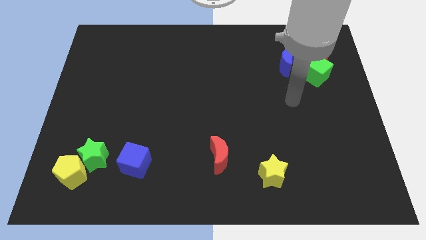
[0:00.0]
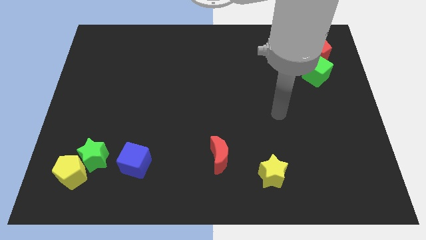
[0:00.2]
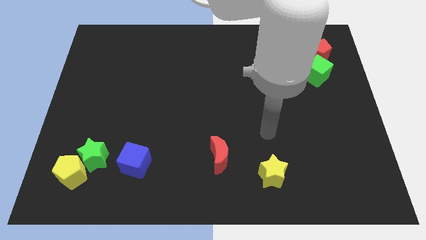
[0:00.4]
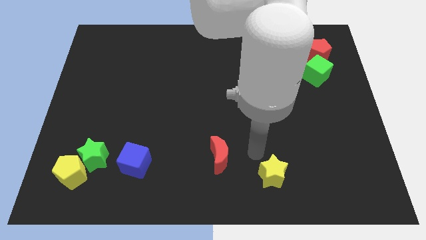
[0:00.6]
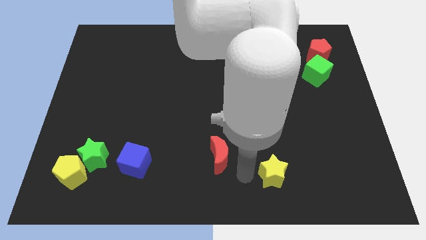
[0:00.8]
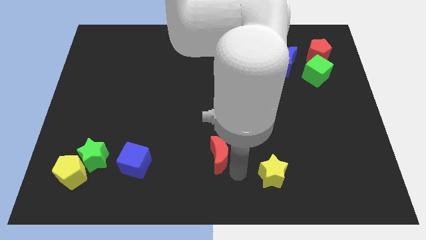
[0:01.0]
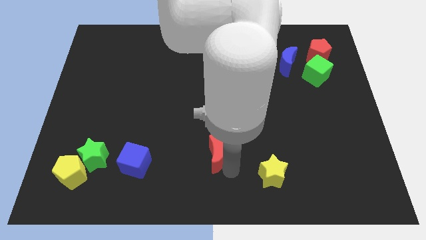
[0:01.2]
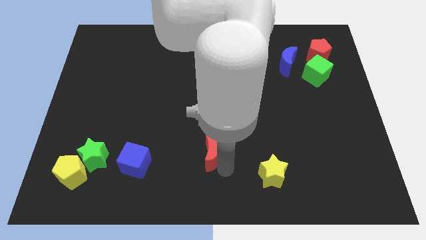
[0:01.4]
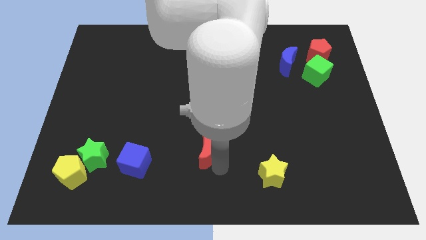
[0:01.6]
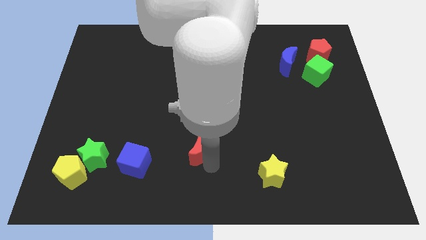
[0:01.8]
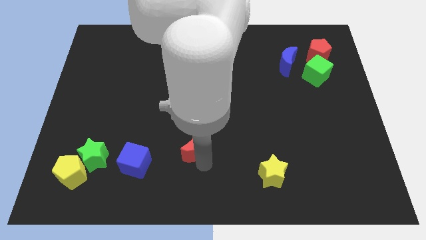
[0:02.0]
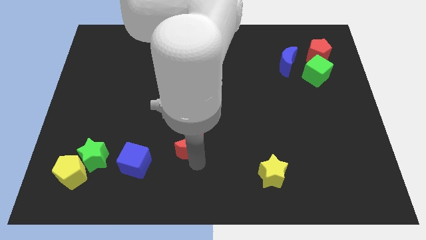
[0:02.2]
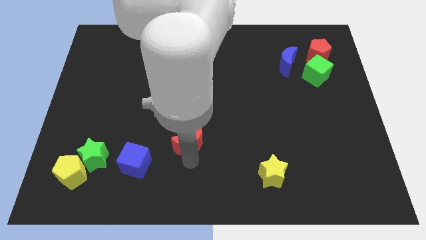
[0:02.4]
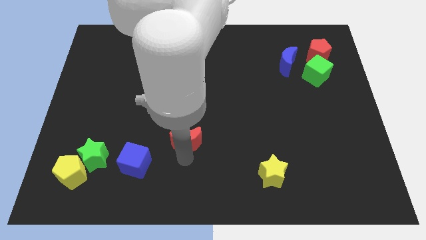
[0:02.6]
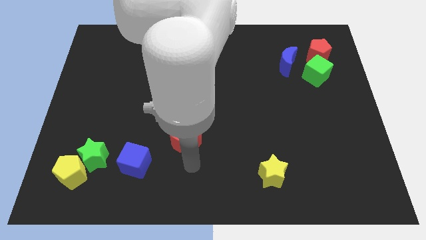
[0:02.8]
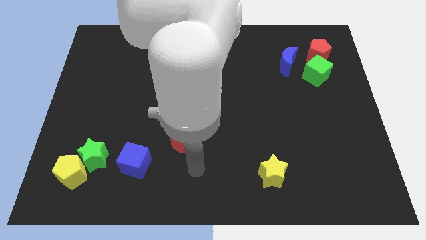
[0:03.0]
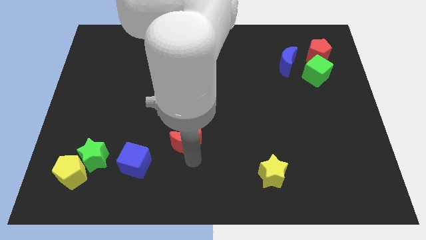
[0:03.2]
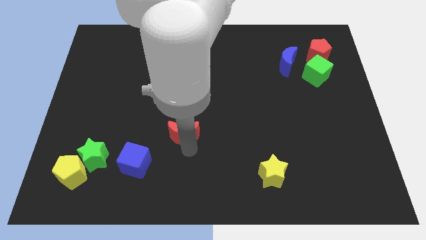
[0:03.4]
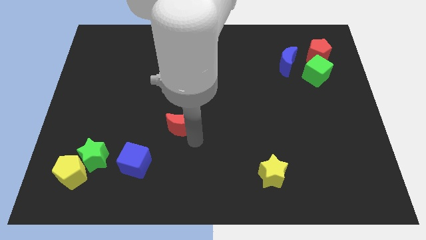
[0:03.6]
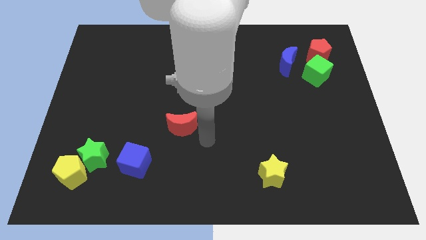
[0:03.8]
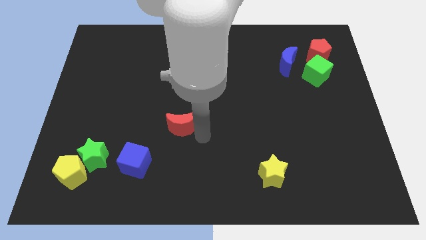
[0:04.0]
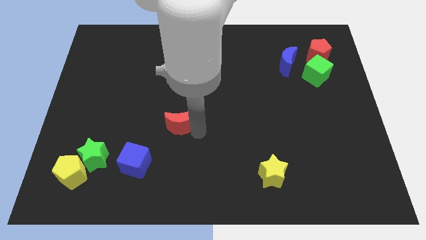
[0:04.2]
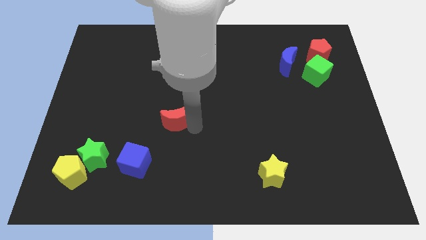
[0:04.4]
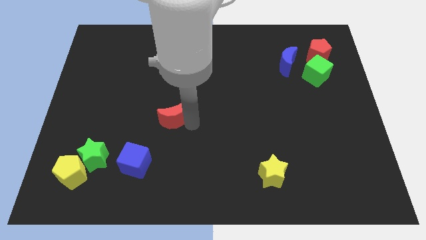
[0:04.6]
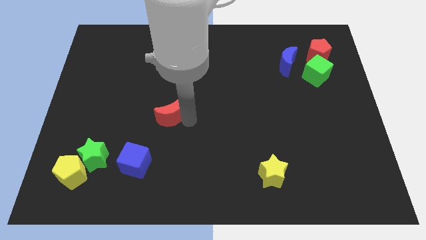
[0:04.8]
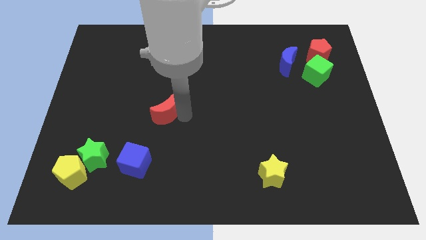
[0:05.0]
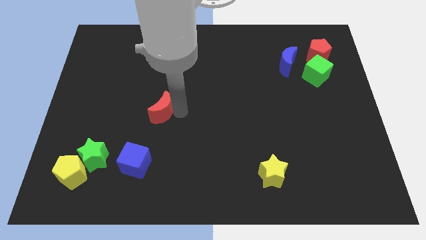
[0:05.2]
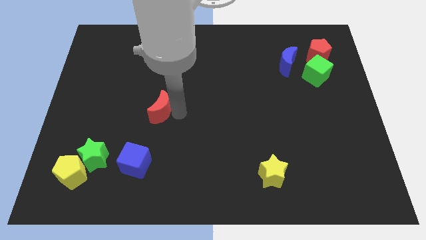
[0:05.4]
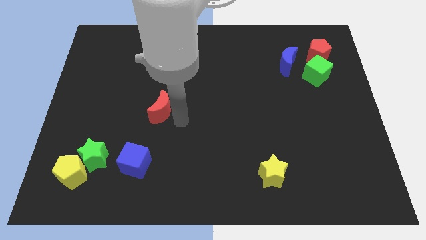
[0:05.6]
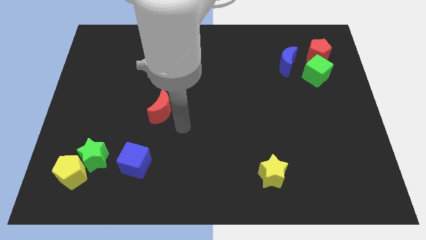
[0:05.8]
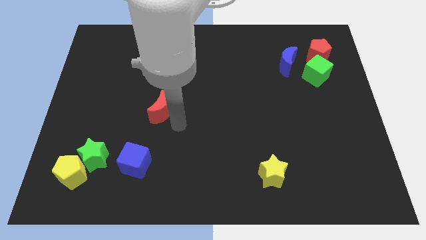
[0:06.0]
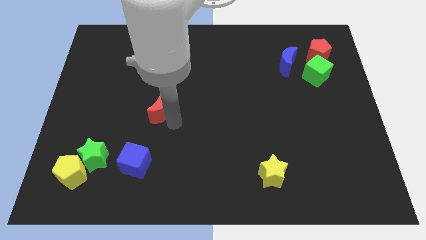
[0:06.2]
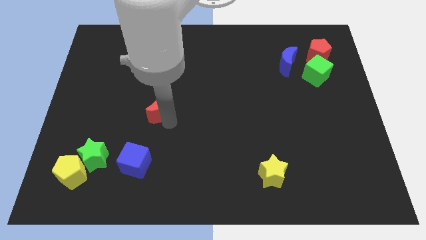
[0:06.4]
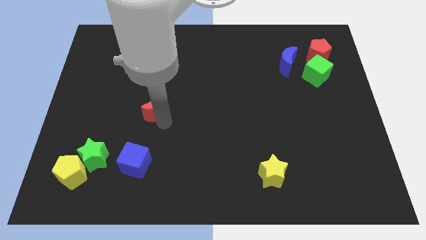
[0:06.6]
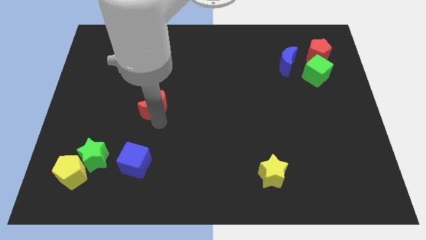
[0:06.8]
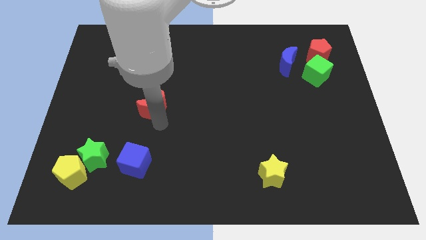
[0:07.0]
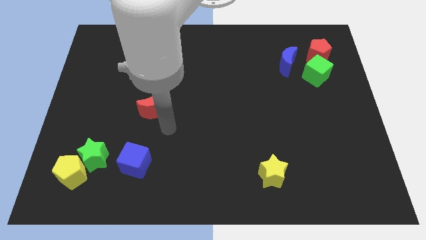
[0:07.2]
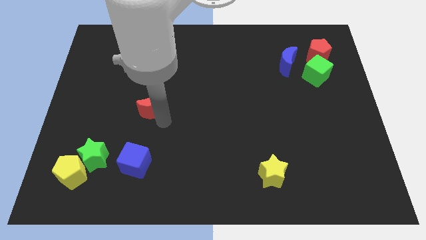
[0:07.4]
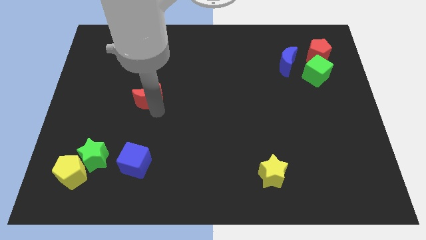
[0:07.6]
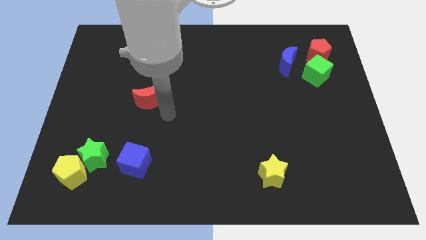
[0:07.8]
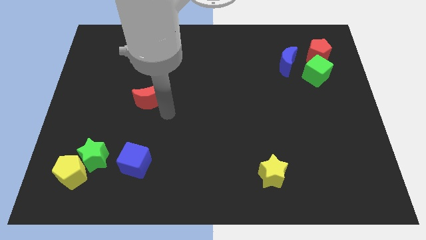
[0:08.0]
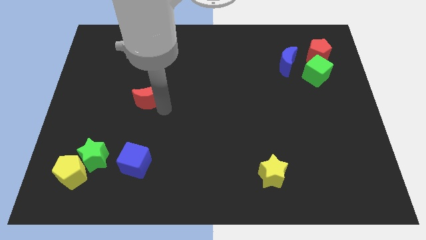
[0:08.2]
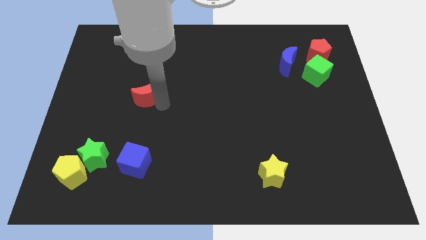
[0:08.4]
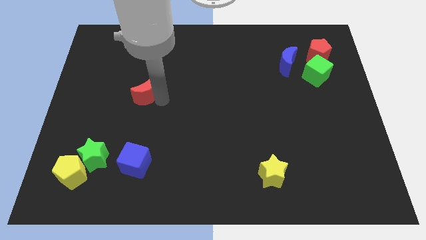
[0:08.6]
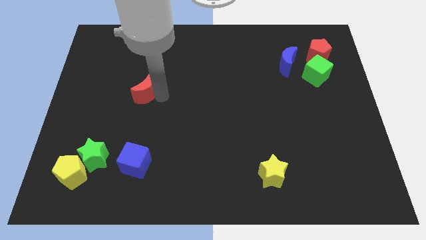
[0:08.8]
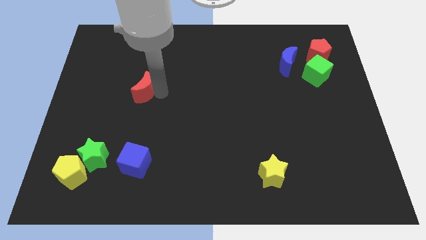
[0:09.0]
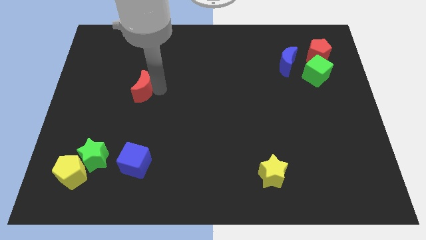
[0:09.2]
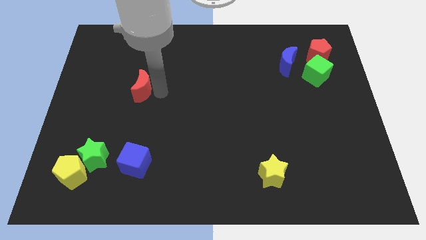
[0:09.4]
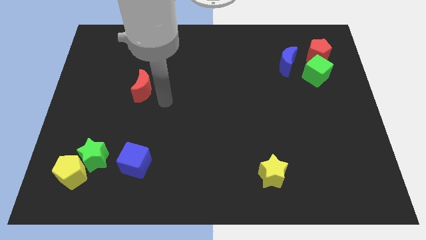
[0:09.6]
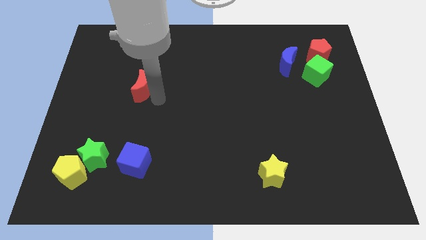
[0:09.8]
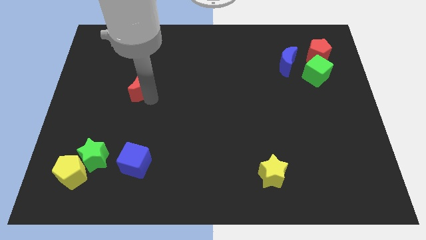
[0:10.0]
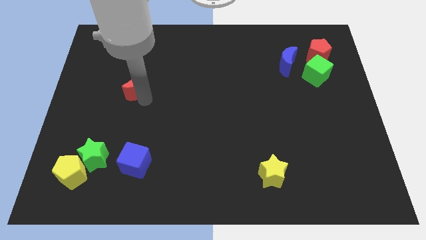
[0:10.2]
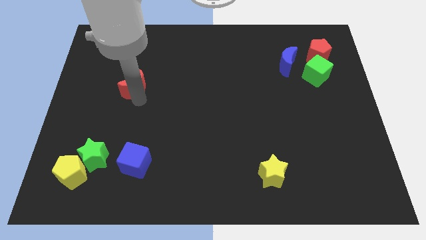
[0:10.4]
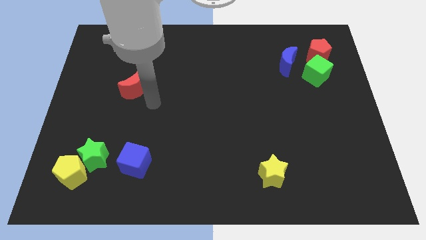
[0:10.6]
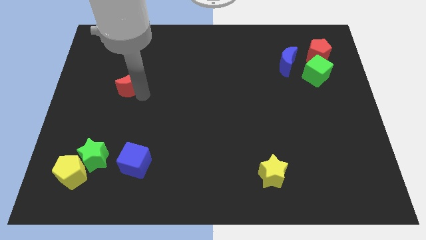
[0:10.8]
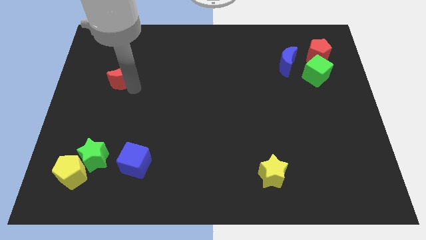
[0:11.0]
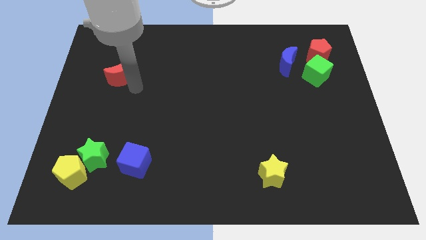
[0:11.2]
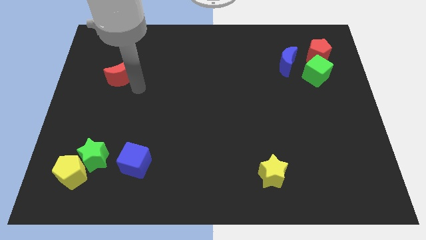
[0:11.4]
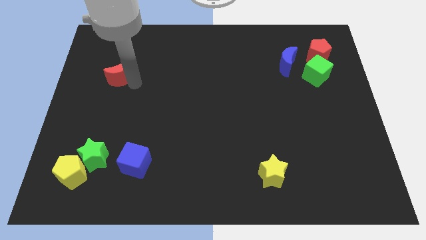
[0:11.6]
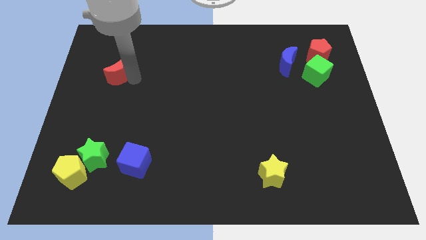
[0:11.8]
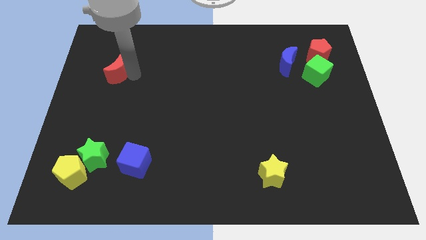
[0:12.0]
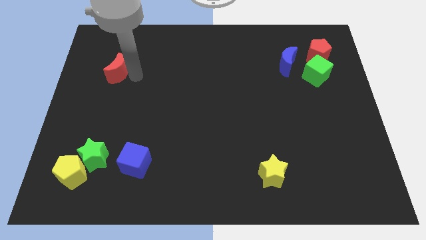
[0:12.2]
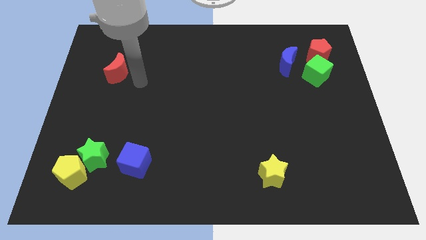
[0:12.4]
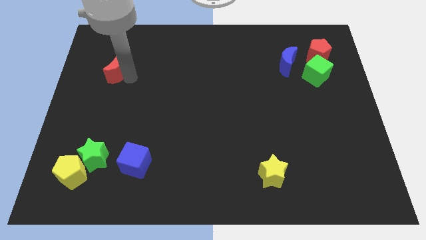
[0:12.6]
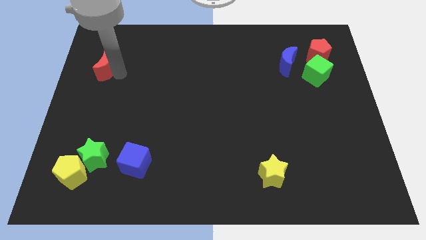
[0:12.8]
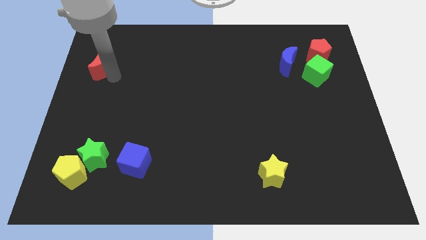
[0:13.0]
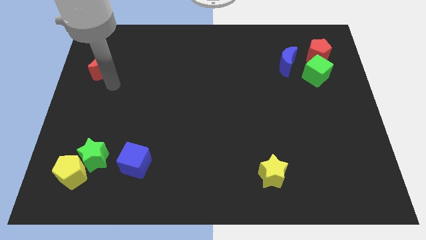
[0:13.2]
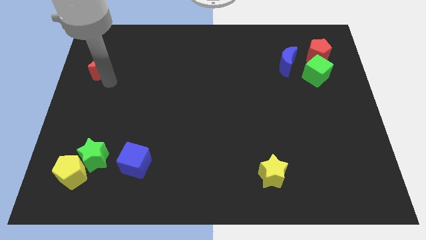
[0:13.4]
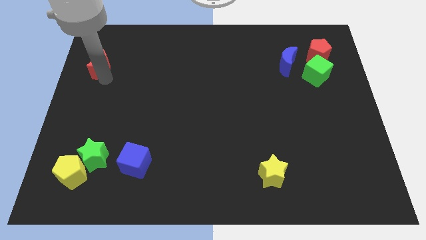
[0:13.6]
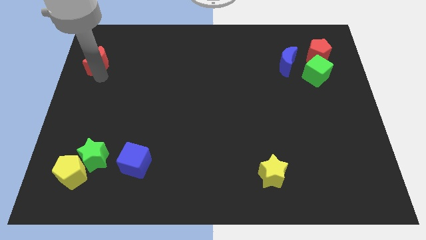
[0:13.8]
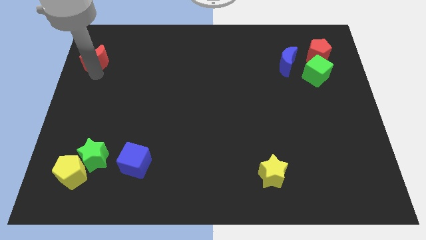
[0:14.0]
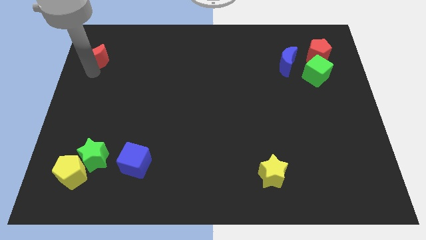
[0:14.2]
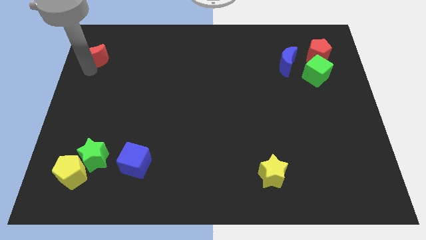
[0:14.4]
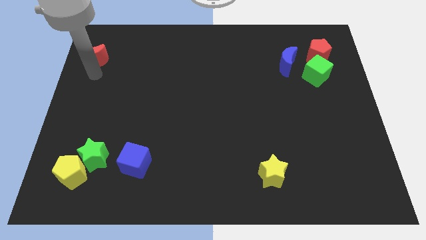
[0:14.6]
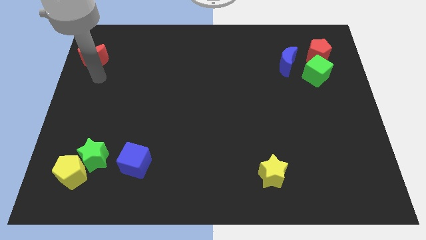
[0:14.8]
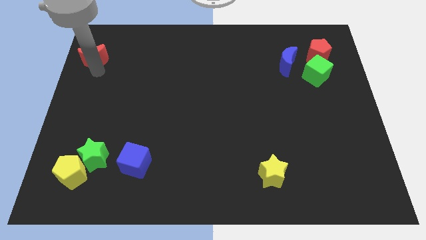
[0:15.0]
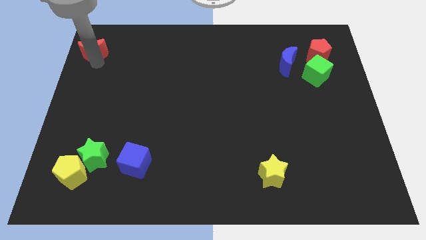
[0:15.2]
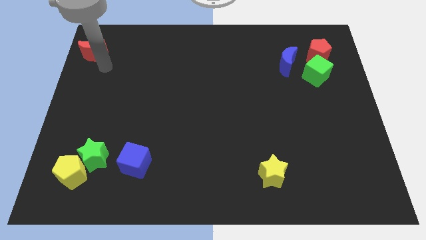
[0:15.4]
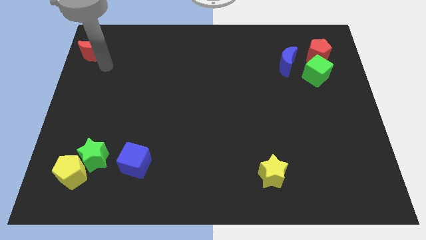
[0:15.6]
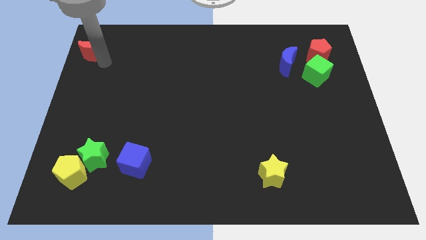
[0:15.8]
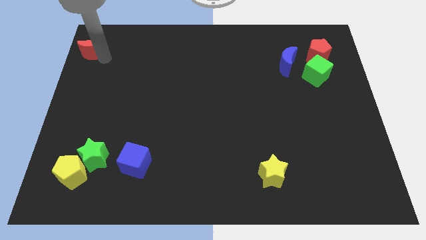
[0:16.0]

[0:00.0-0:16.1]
move the red moon to the top left corner
